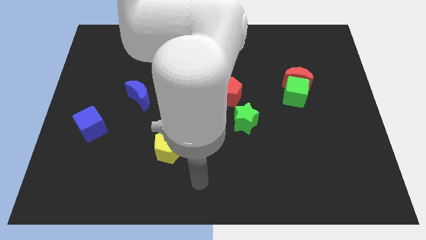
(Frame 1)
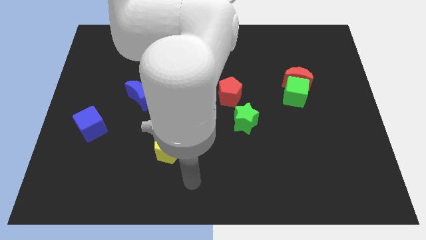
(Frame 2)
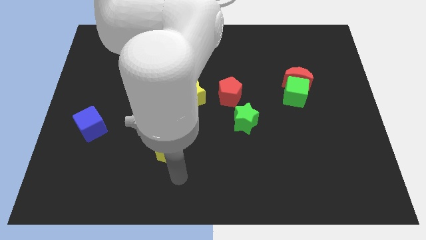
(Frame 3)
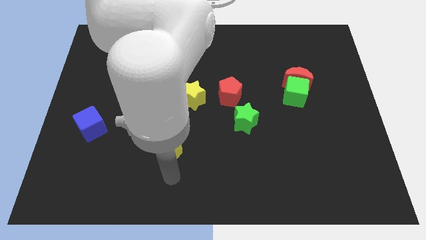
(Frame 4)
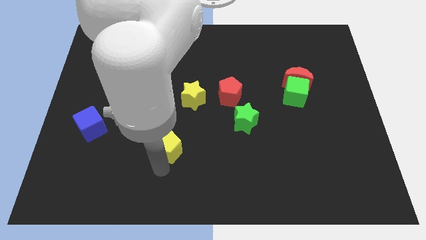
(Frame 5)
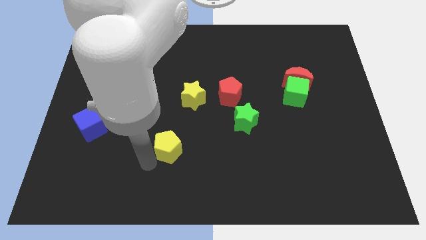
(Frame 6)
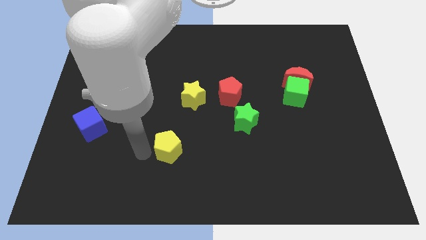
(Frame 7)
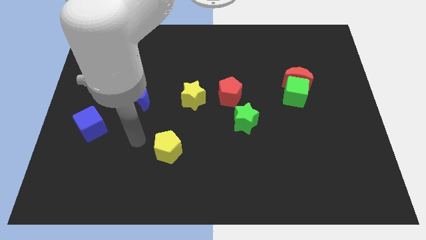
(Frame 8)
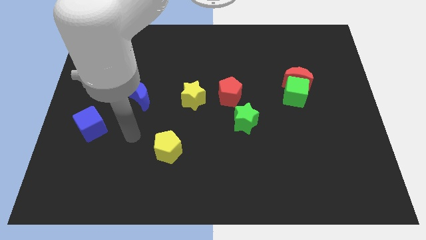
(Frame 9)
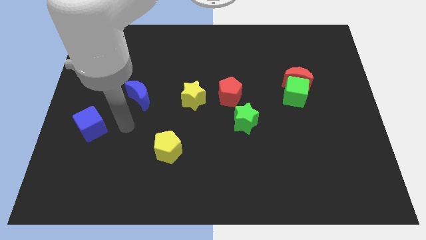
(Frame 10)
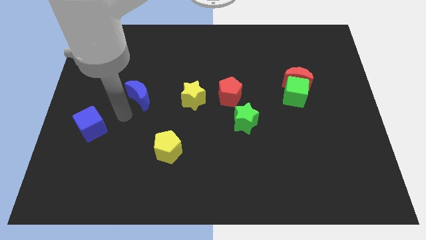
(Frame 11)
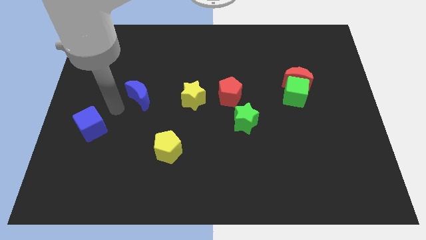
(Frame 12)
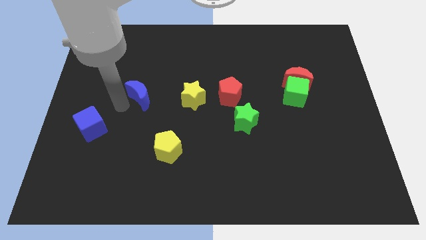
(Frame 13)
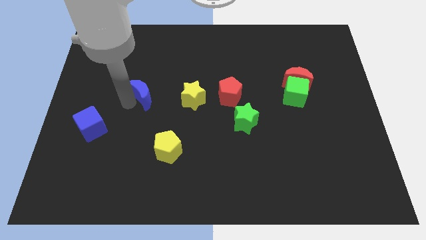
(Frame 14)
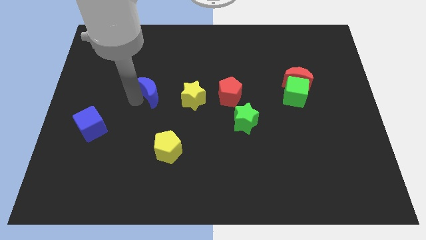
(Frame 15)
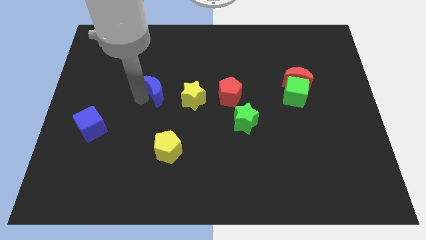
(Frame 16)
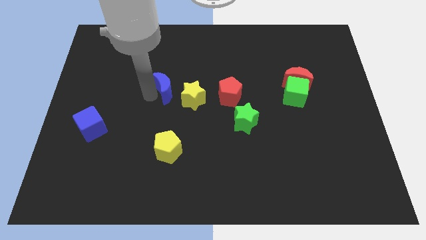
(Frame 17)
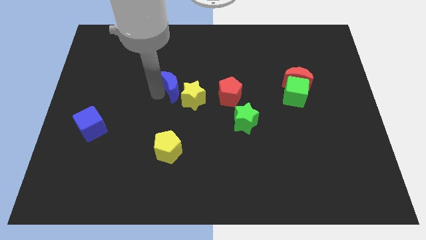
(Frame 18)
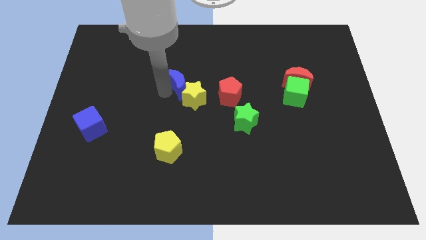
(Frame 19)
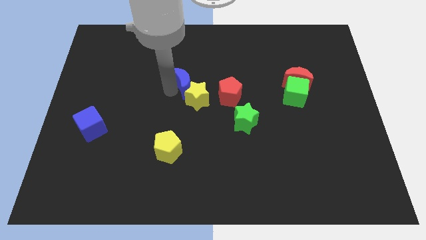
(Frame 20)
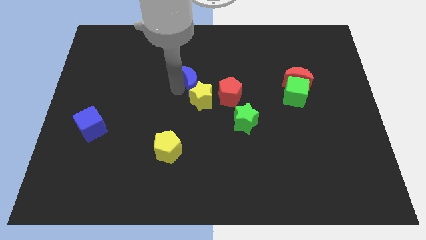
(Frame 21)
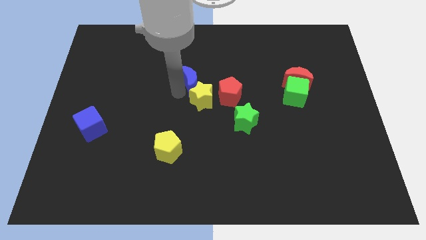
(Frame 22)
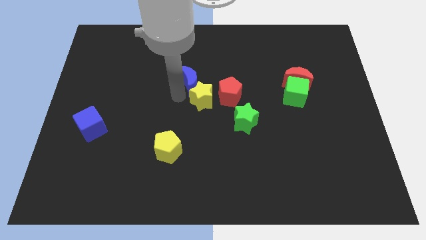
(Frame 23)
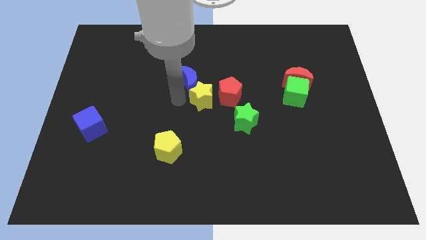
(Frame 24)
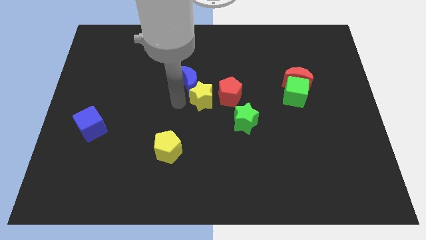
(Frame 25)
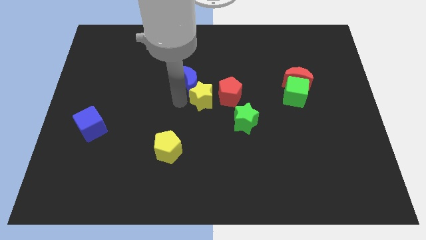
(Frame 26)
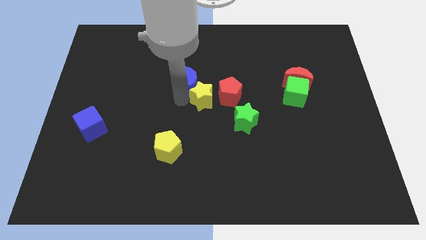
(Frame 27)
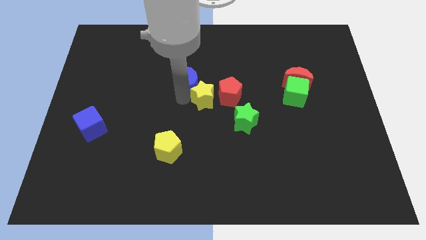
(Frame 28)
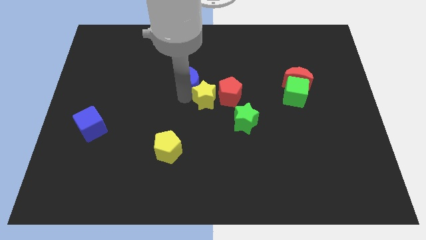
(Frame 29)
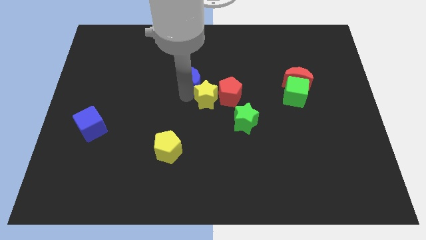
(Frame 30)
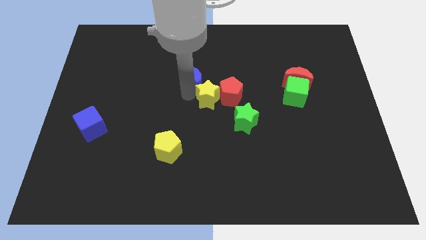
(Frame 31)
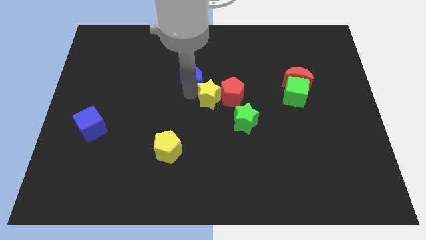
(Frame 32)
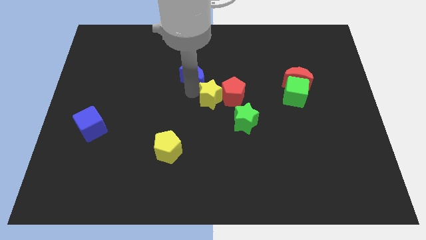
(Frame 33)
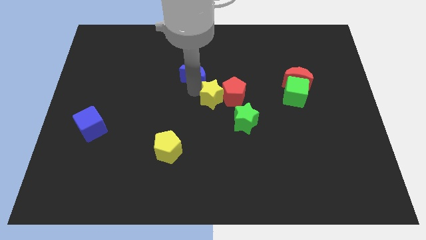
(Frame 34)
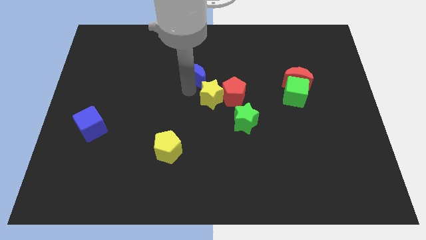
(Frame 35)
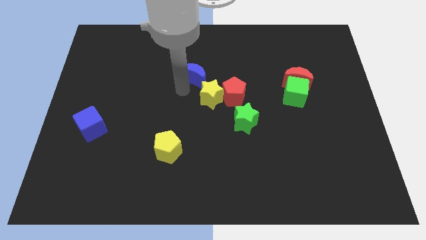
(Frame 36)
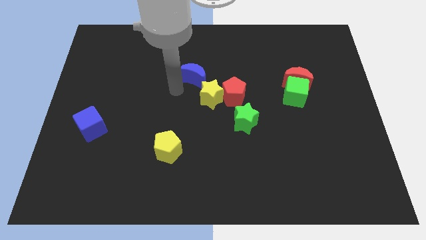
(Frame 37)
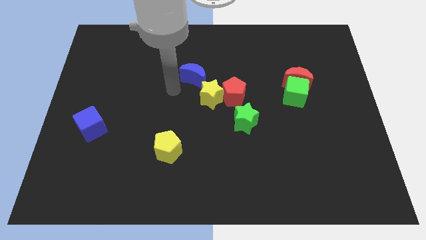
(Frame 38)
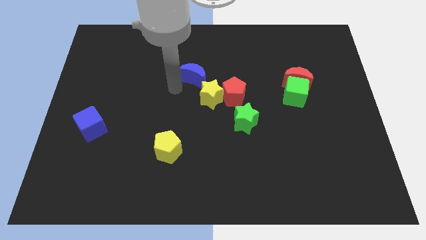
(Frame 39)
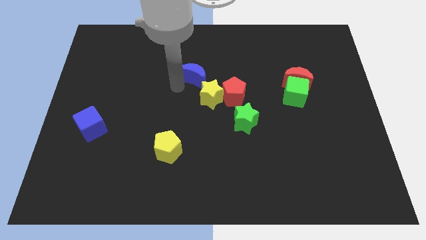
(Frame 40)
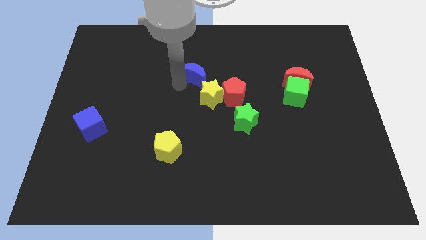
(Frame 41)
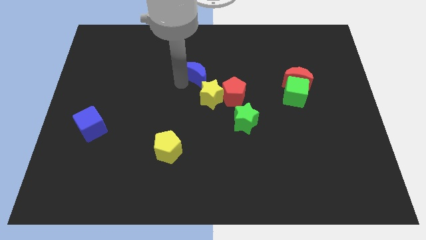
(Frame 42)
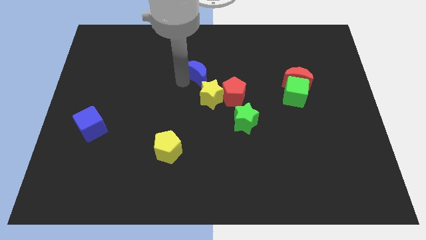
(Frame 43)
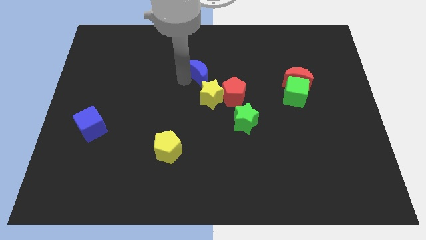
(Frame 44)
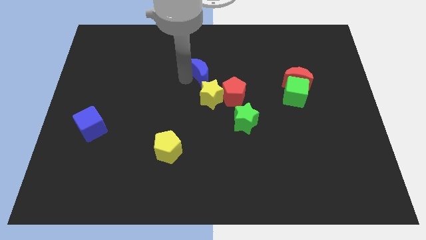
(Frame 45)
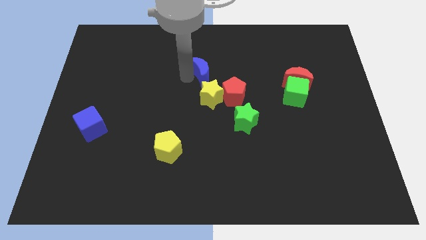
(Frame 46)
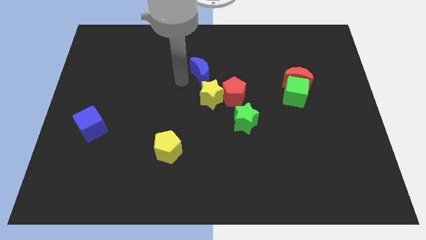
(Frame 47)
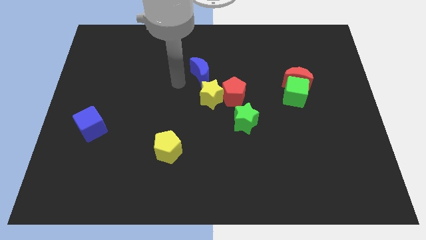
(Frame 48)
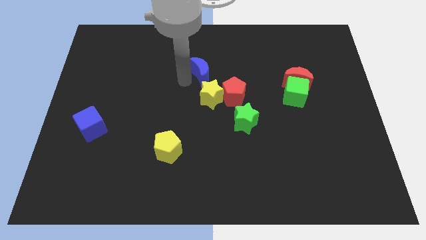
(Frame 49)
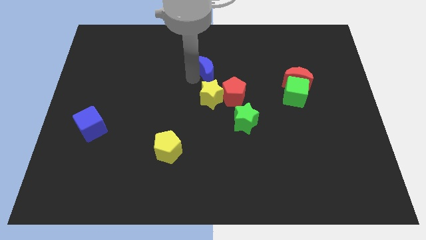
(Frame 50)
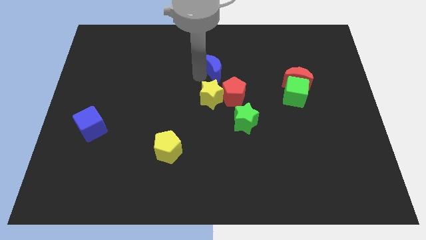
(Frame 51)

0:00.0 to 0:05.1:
push the blue moon to the top side of the red pentagon

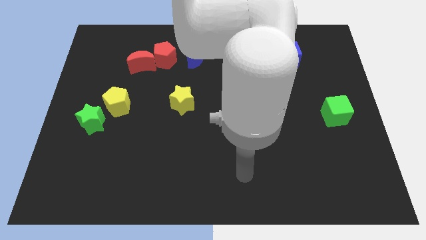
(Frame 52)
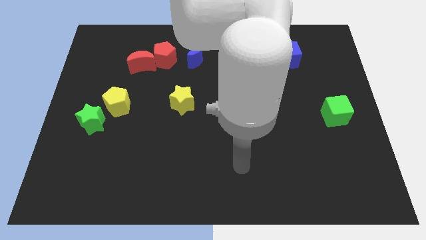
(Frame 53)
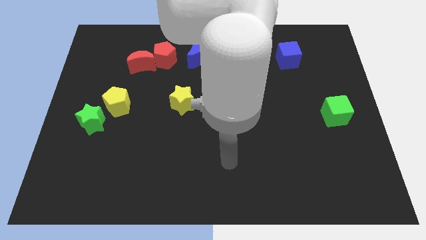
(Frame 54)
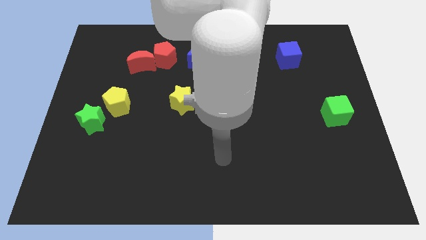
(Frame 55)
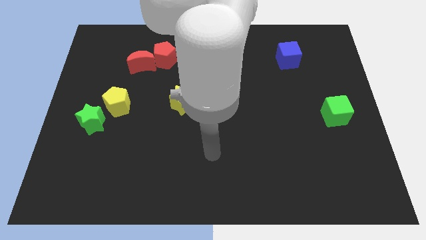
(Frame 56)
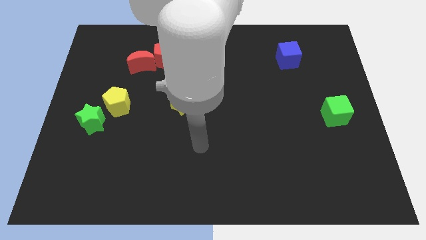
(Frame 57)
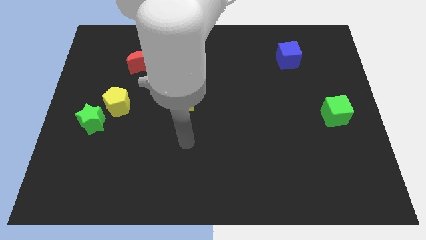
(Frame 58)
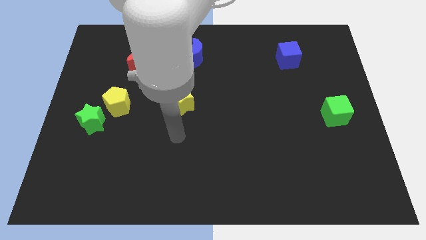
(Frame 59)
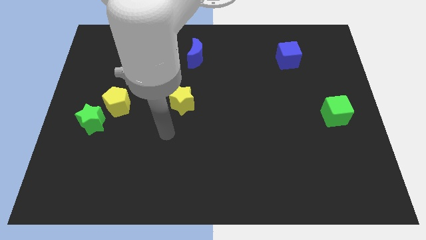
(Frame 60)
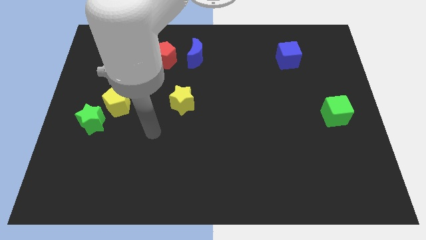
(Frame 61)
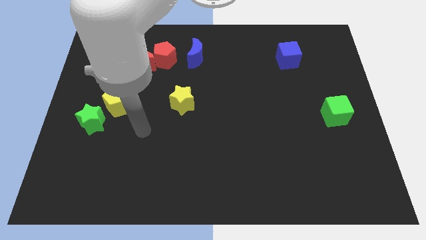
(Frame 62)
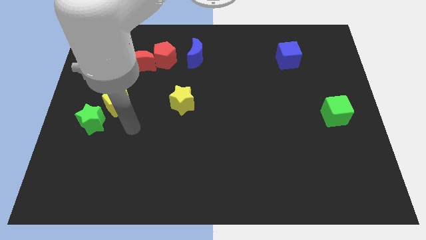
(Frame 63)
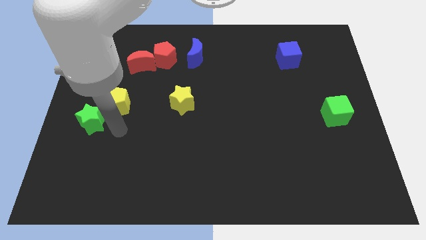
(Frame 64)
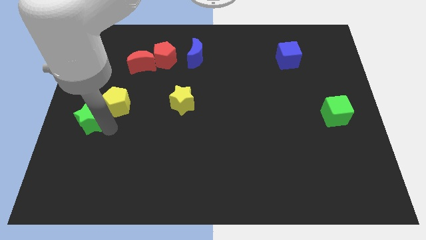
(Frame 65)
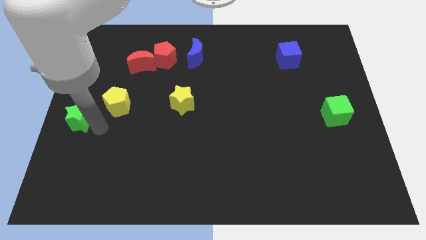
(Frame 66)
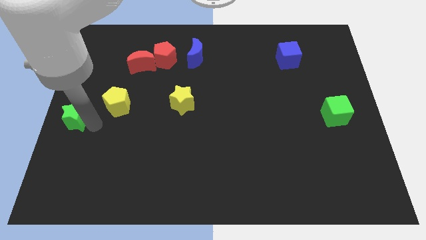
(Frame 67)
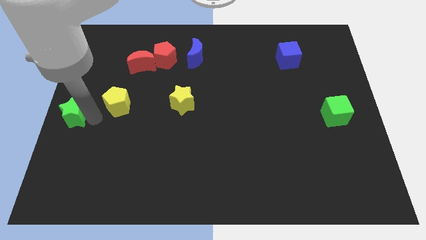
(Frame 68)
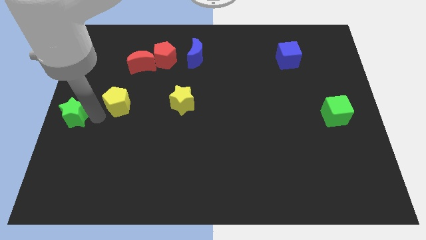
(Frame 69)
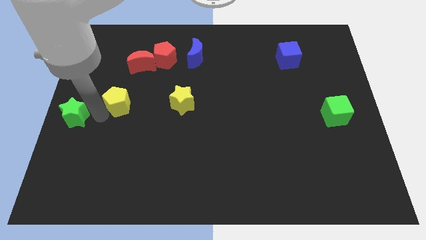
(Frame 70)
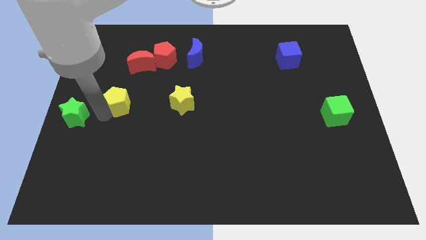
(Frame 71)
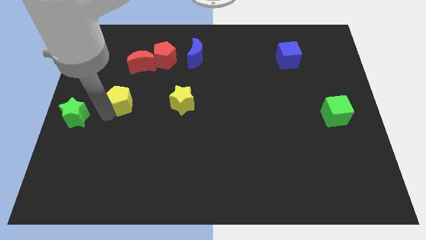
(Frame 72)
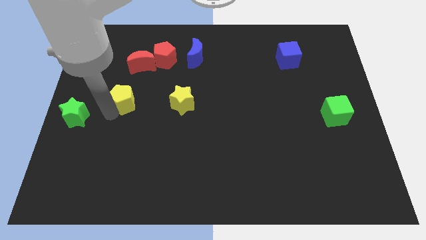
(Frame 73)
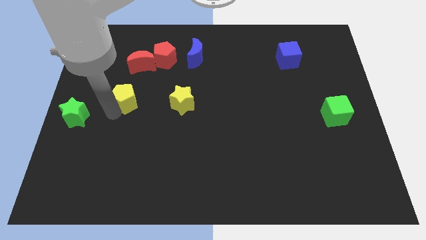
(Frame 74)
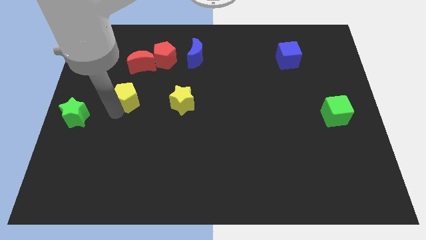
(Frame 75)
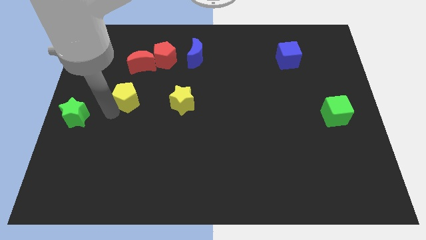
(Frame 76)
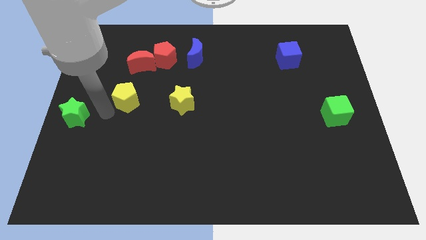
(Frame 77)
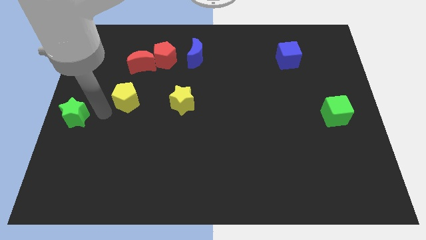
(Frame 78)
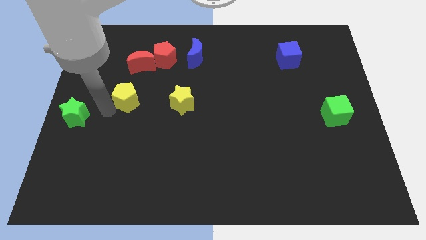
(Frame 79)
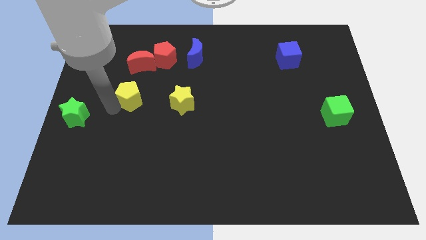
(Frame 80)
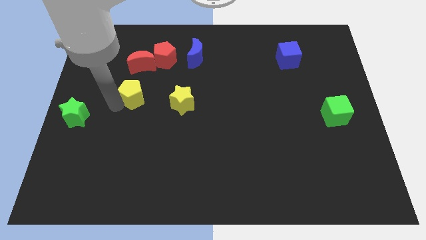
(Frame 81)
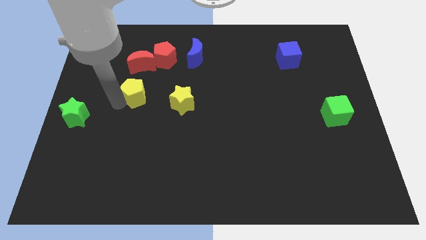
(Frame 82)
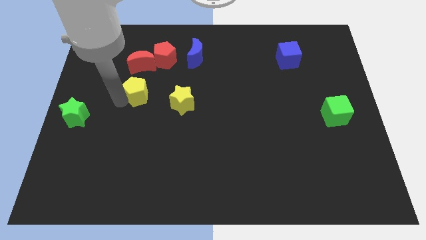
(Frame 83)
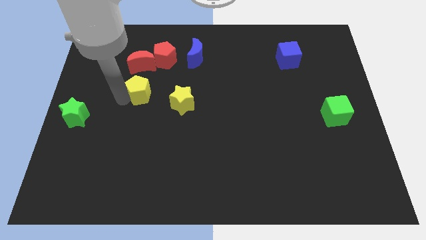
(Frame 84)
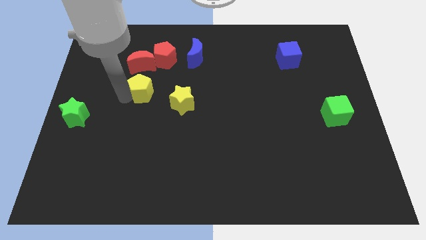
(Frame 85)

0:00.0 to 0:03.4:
push the yellow pentagon to the bottom side of the red pentagon
